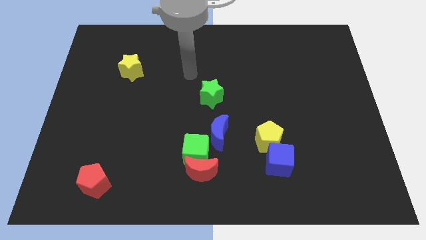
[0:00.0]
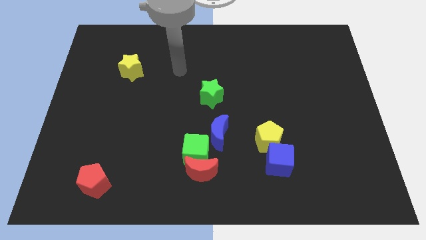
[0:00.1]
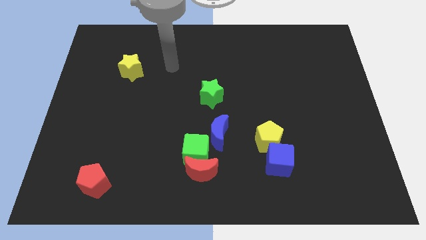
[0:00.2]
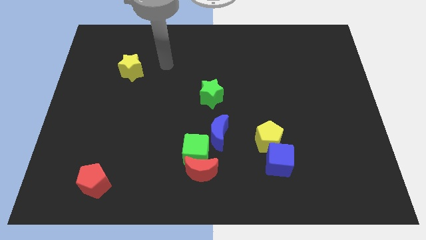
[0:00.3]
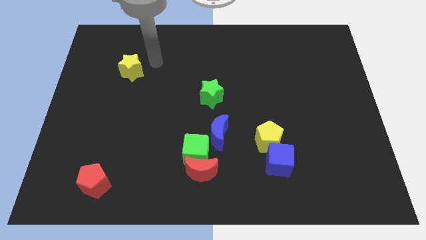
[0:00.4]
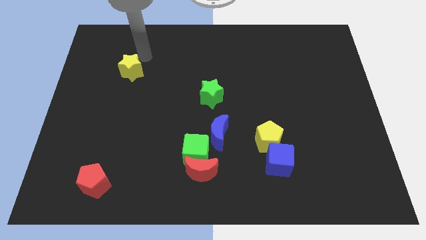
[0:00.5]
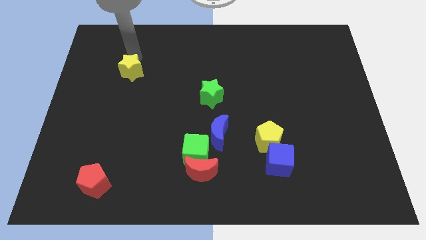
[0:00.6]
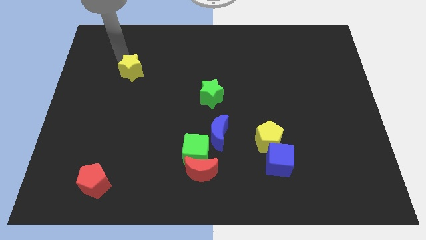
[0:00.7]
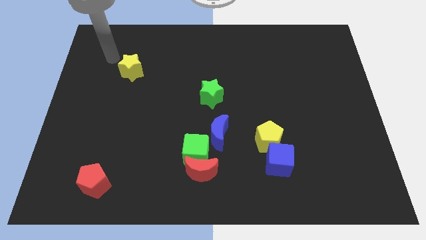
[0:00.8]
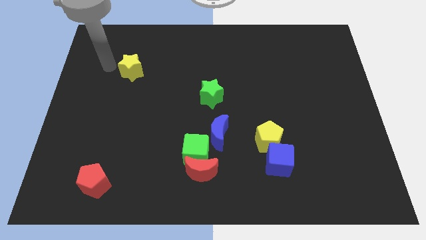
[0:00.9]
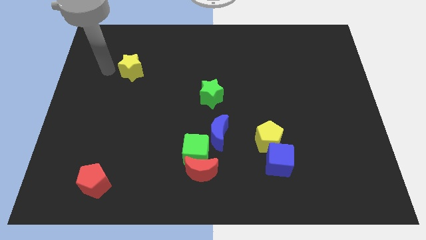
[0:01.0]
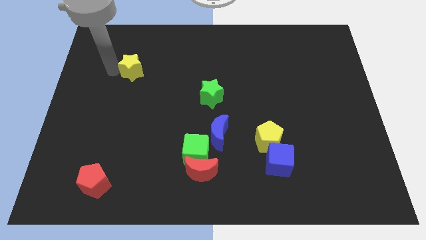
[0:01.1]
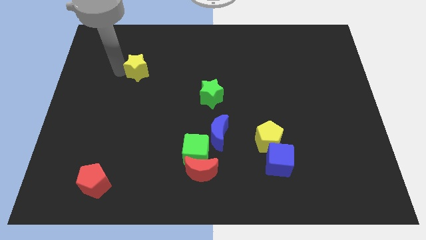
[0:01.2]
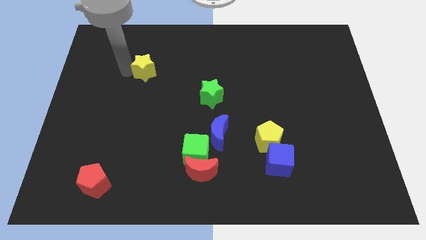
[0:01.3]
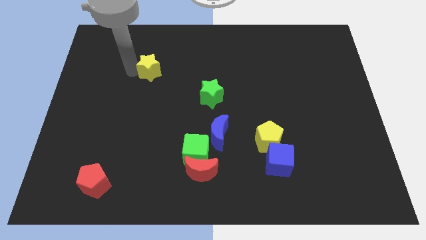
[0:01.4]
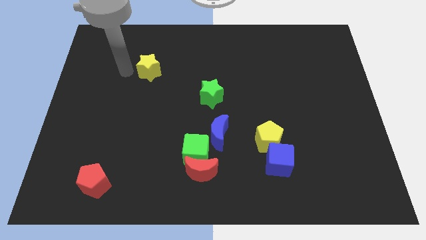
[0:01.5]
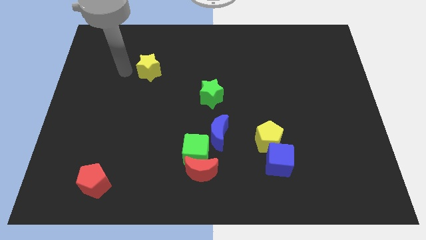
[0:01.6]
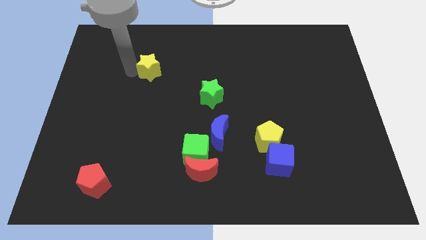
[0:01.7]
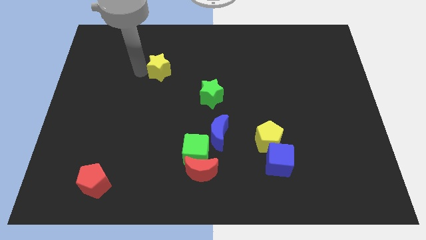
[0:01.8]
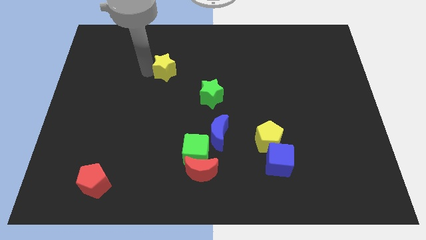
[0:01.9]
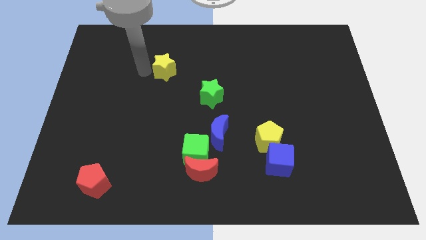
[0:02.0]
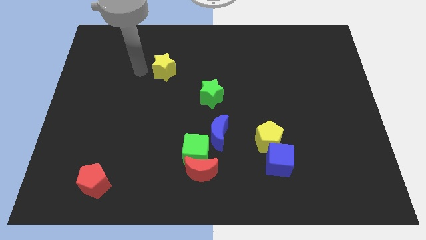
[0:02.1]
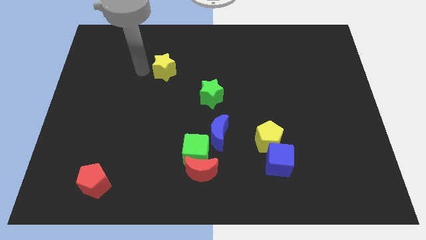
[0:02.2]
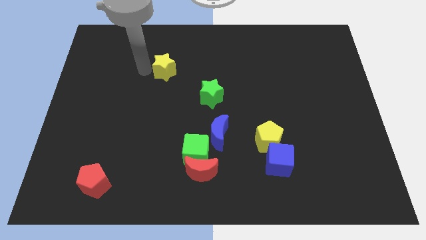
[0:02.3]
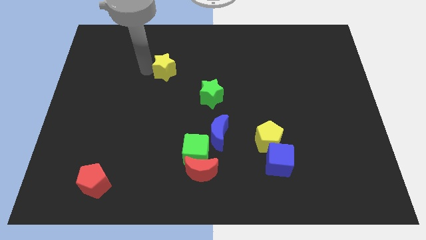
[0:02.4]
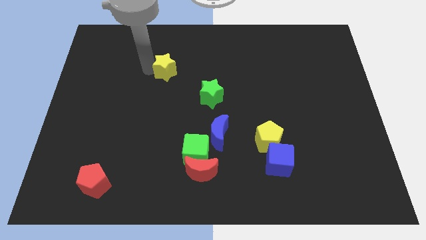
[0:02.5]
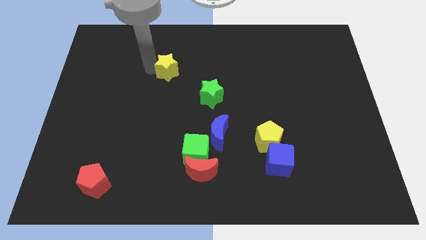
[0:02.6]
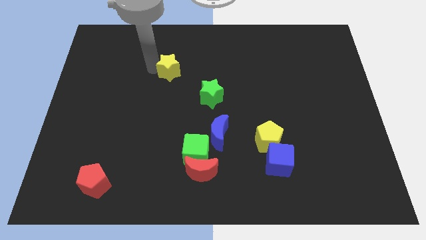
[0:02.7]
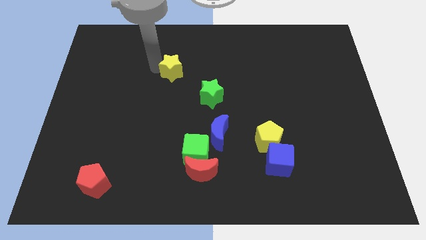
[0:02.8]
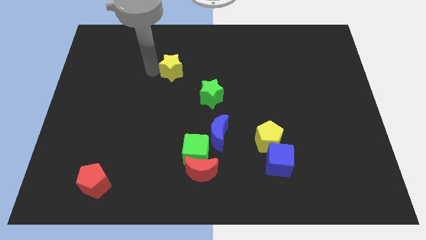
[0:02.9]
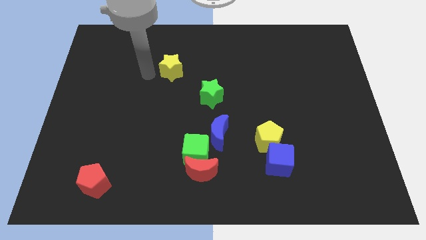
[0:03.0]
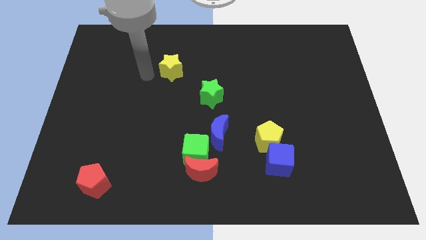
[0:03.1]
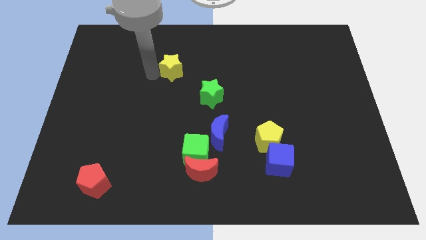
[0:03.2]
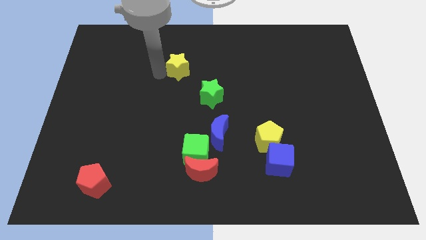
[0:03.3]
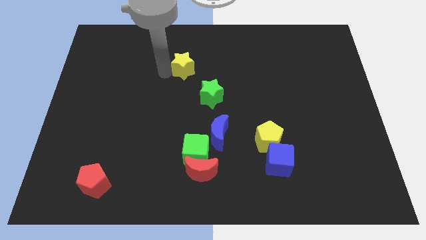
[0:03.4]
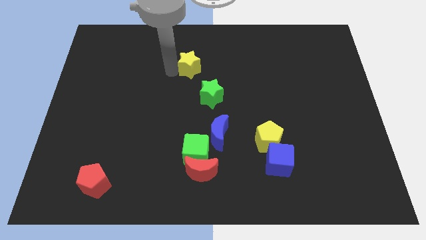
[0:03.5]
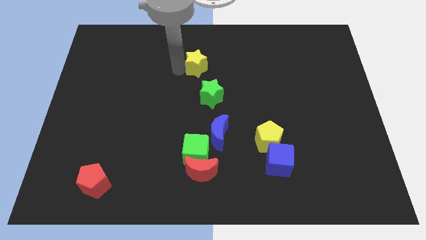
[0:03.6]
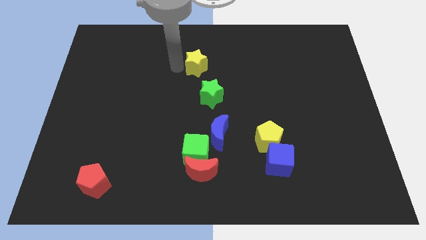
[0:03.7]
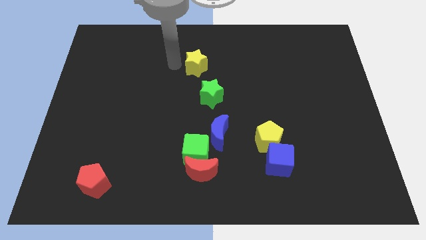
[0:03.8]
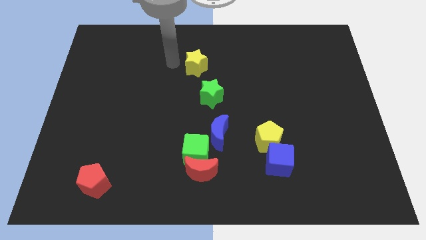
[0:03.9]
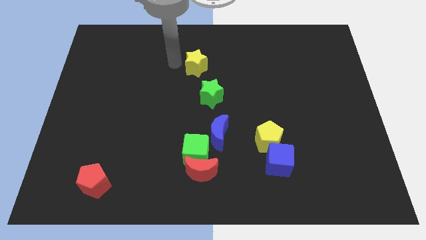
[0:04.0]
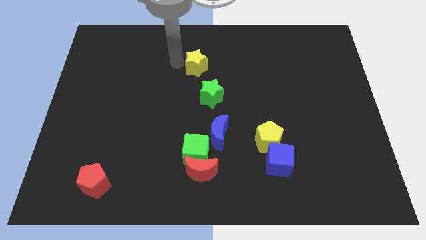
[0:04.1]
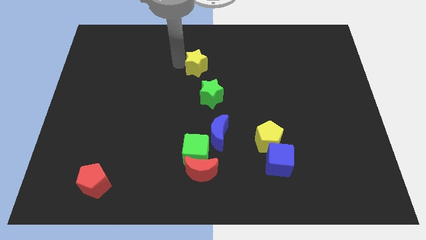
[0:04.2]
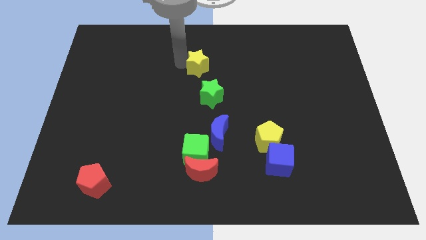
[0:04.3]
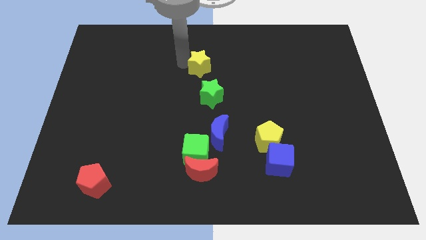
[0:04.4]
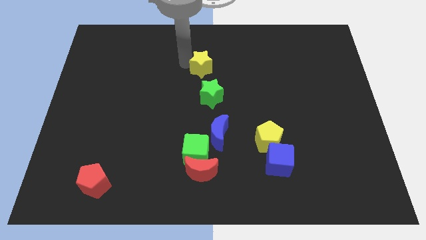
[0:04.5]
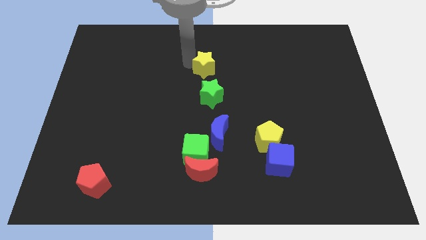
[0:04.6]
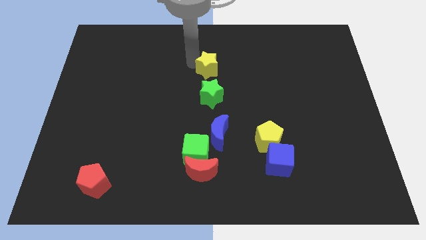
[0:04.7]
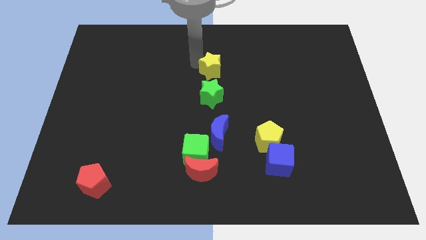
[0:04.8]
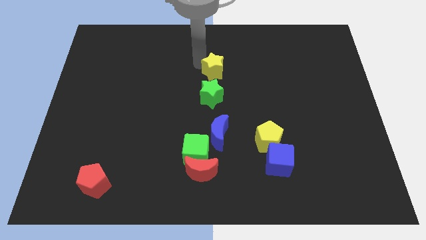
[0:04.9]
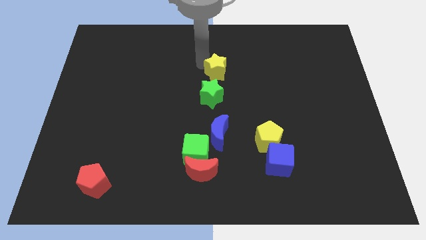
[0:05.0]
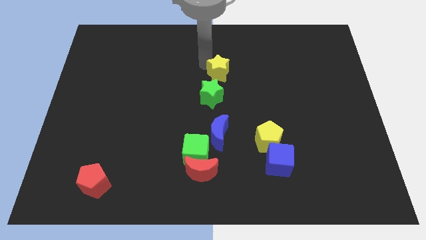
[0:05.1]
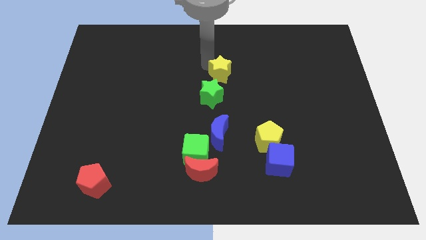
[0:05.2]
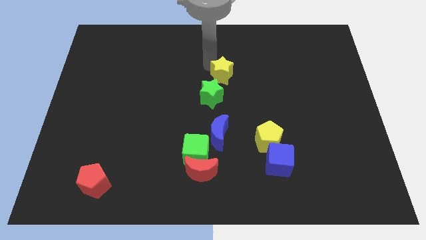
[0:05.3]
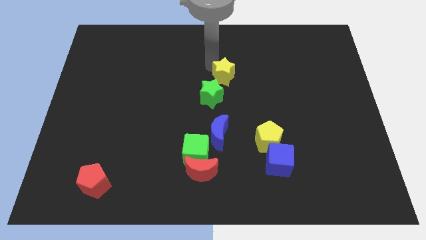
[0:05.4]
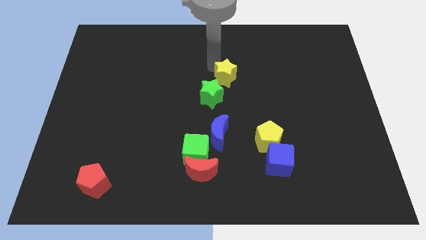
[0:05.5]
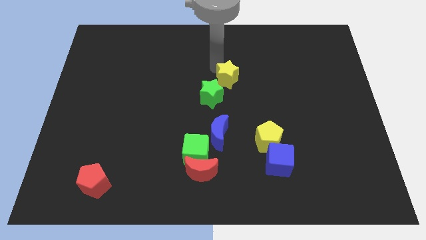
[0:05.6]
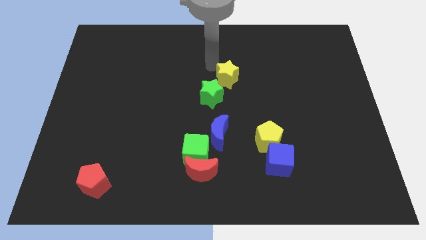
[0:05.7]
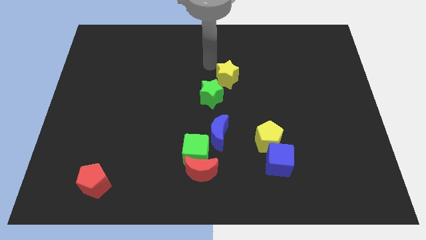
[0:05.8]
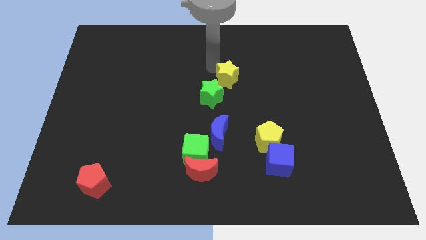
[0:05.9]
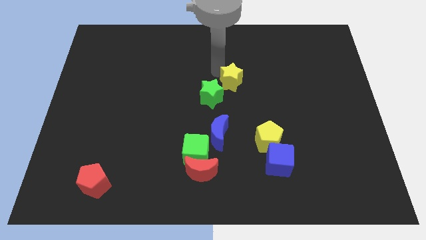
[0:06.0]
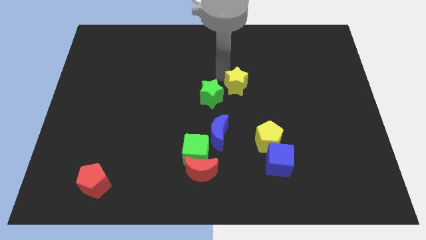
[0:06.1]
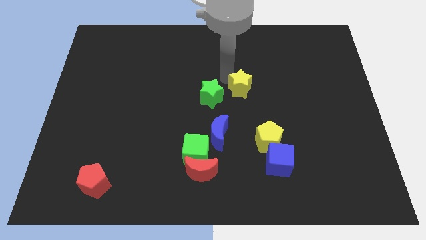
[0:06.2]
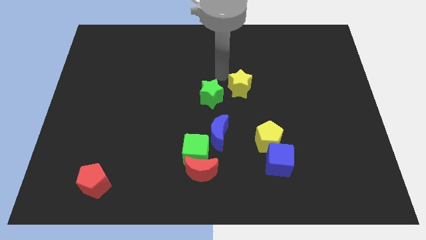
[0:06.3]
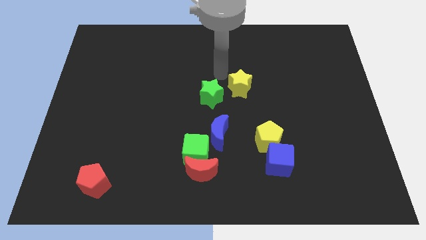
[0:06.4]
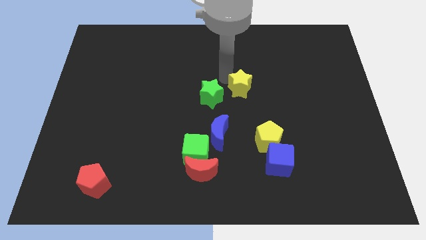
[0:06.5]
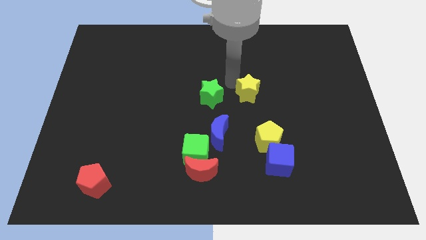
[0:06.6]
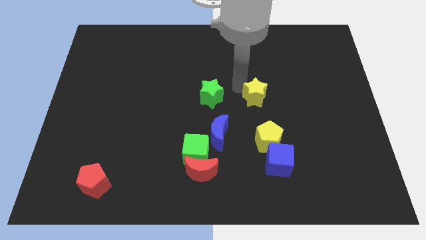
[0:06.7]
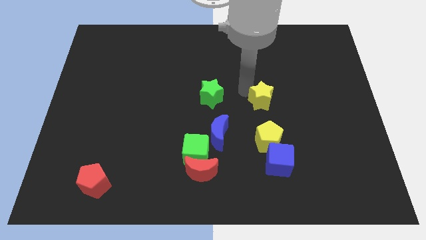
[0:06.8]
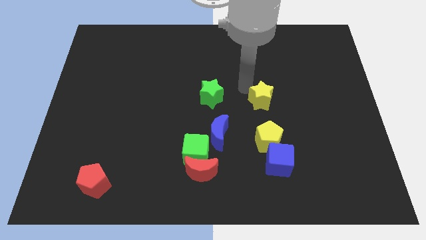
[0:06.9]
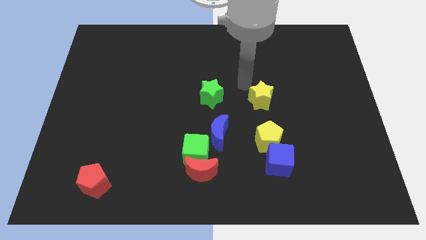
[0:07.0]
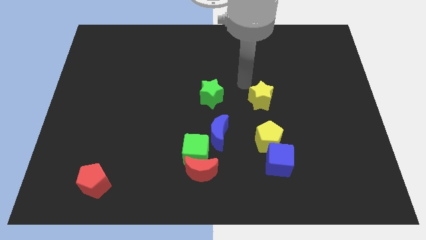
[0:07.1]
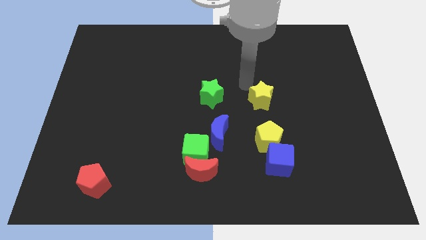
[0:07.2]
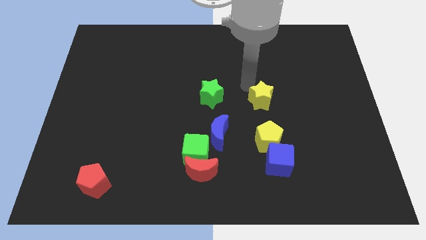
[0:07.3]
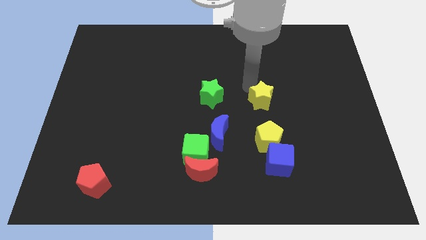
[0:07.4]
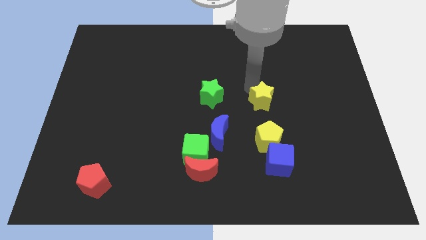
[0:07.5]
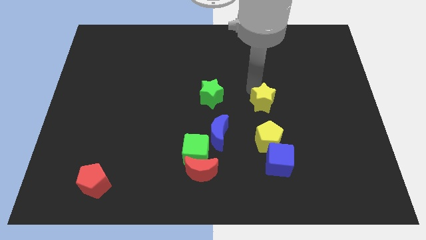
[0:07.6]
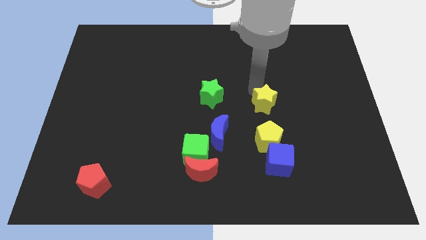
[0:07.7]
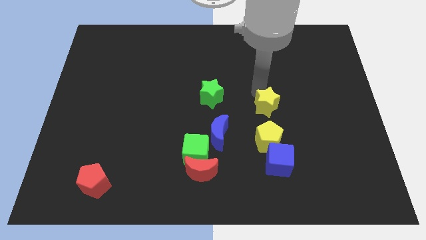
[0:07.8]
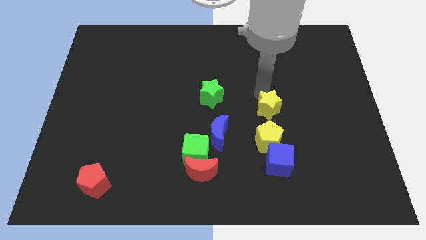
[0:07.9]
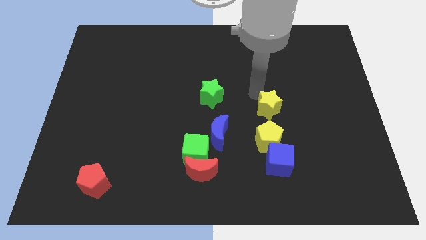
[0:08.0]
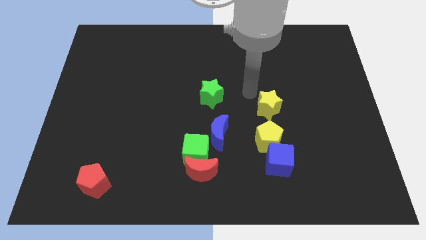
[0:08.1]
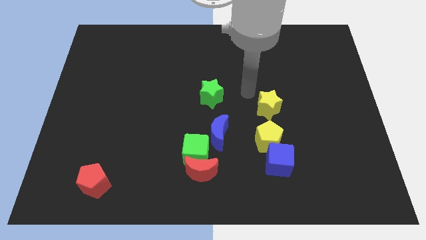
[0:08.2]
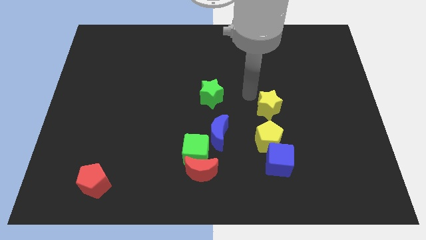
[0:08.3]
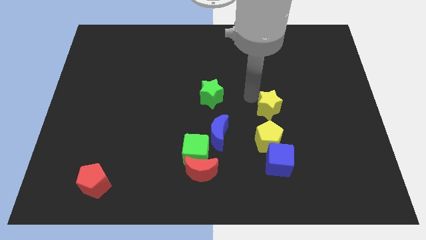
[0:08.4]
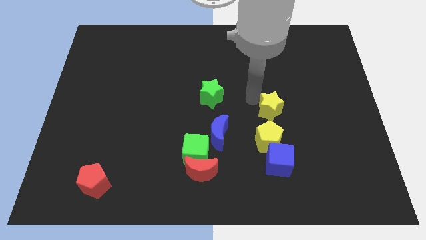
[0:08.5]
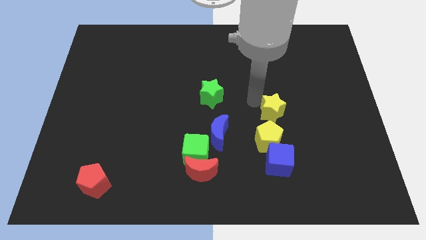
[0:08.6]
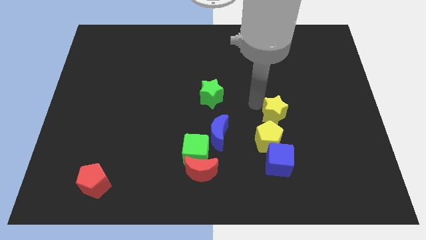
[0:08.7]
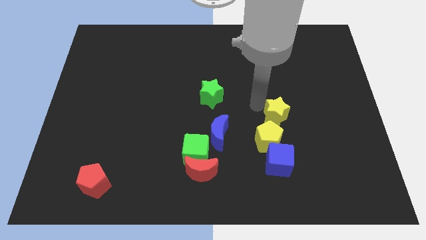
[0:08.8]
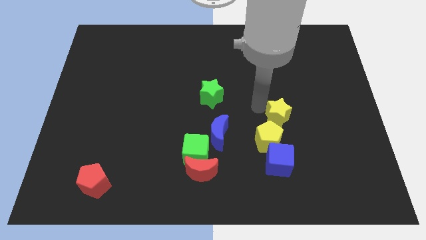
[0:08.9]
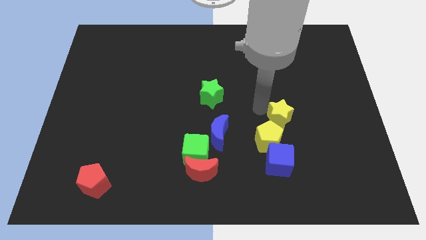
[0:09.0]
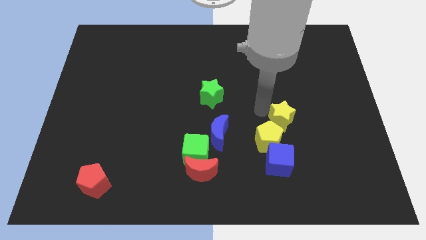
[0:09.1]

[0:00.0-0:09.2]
move the yellow star to the right side of the blue moon
